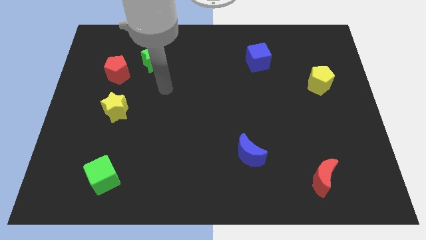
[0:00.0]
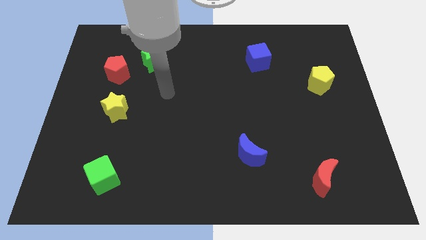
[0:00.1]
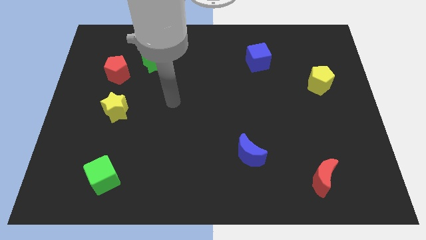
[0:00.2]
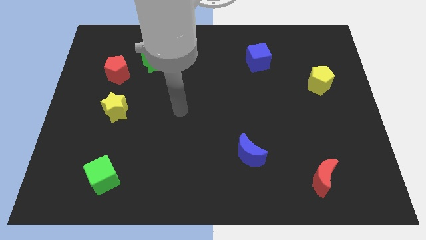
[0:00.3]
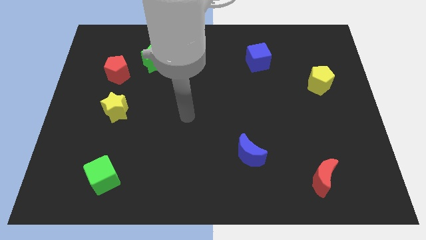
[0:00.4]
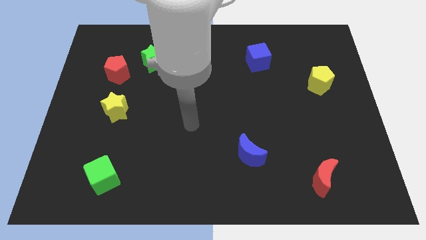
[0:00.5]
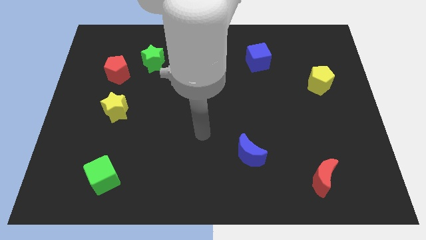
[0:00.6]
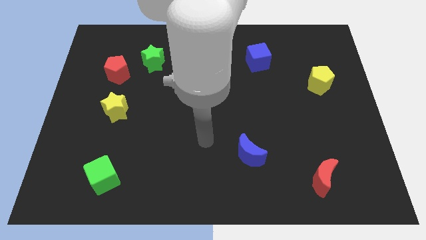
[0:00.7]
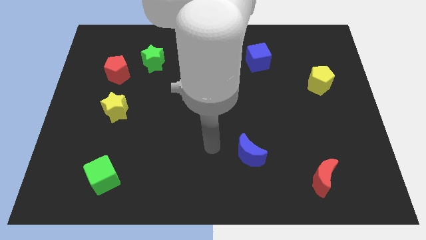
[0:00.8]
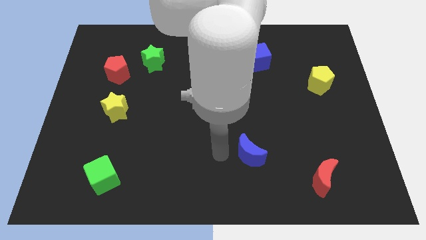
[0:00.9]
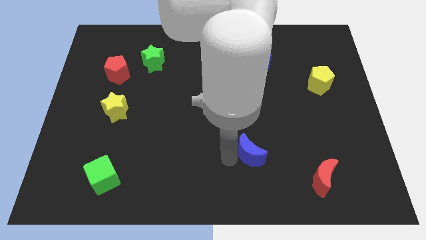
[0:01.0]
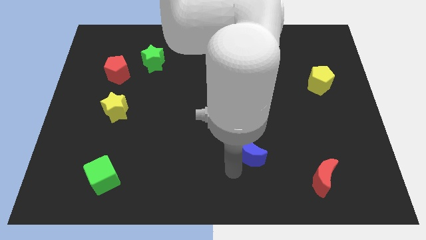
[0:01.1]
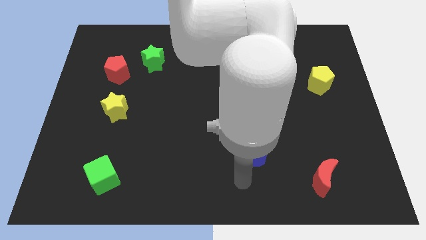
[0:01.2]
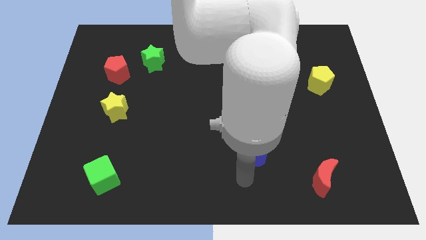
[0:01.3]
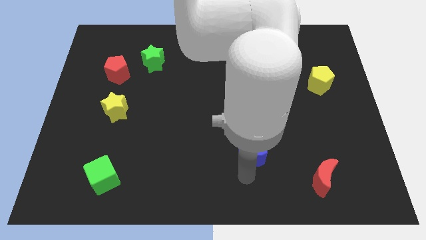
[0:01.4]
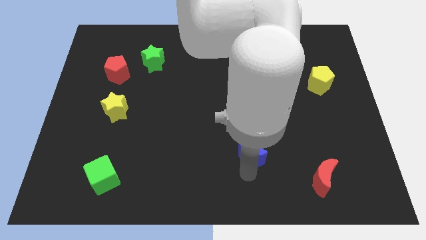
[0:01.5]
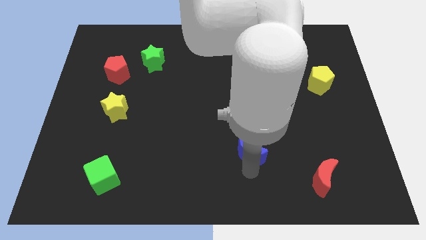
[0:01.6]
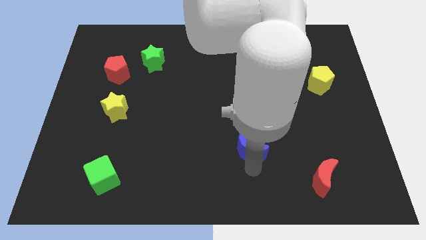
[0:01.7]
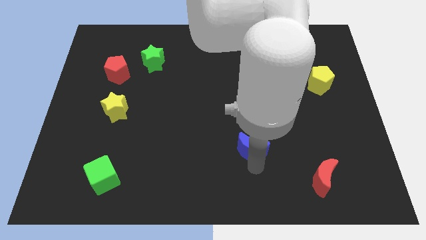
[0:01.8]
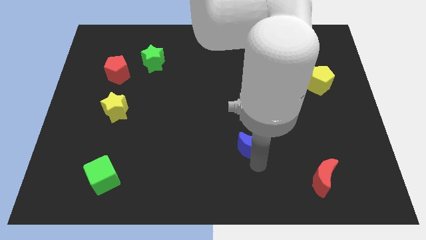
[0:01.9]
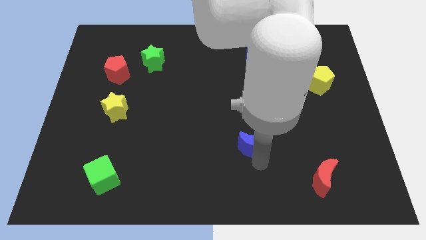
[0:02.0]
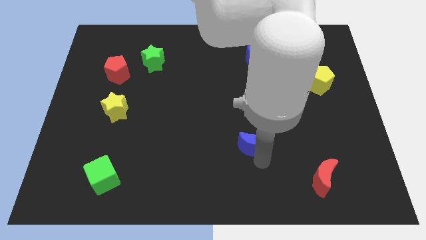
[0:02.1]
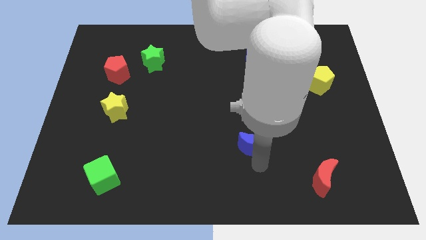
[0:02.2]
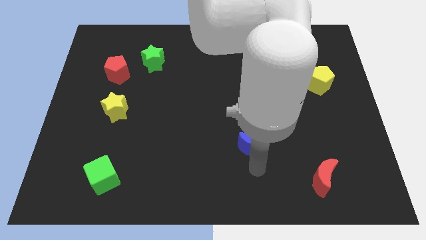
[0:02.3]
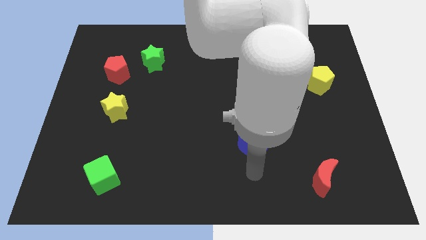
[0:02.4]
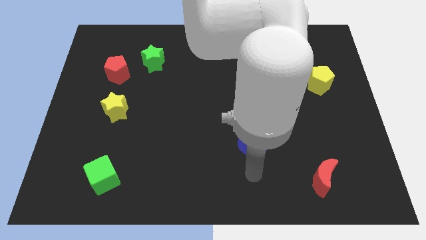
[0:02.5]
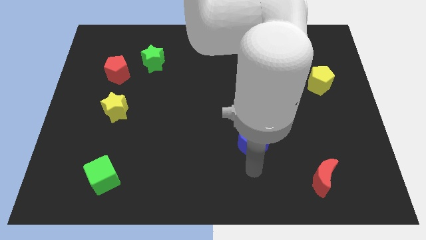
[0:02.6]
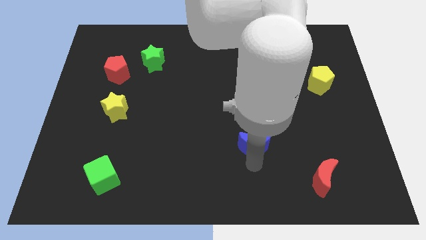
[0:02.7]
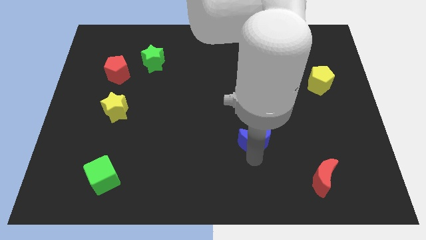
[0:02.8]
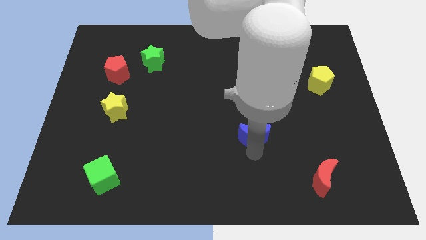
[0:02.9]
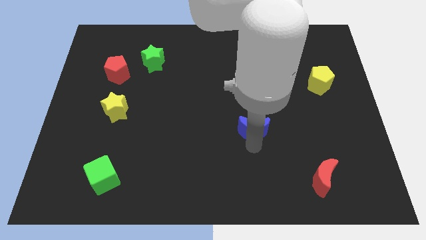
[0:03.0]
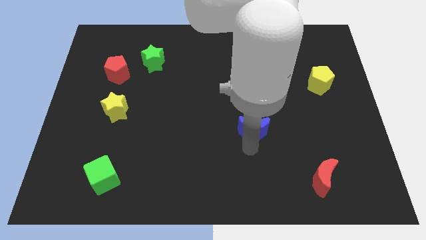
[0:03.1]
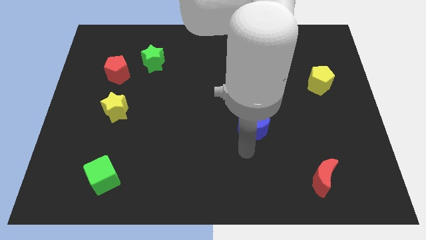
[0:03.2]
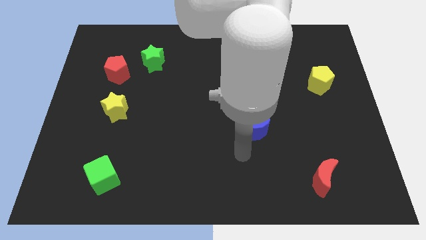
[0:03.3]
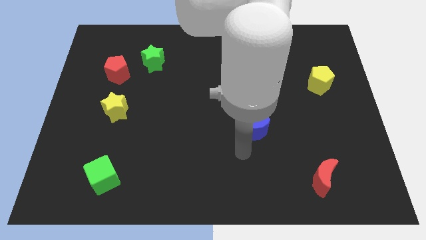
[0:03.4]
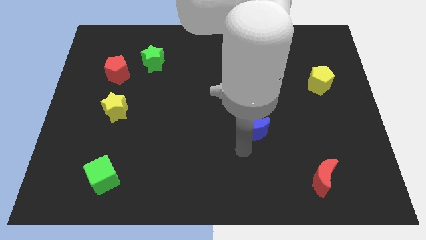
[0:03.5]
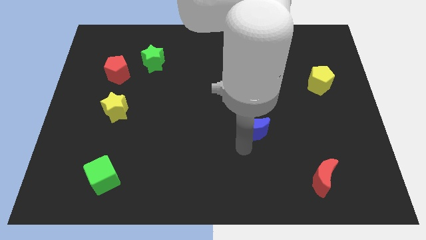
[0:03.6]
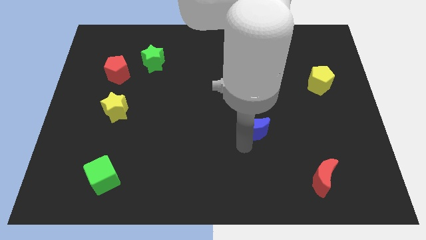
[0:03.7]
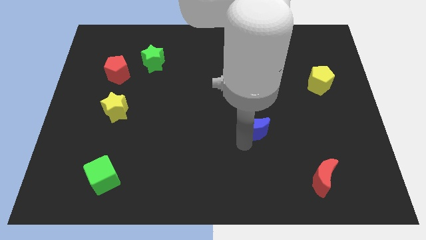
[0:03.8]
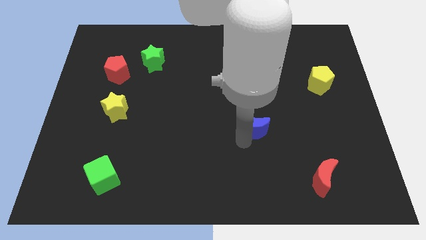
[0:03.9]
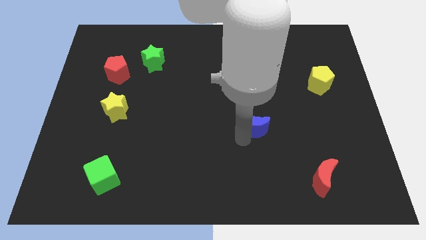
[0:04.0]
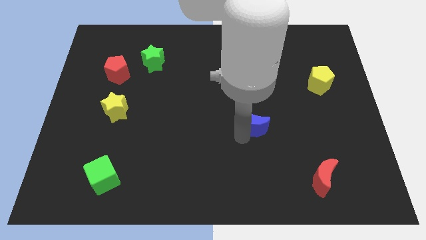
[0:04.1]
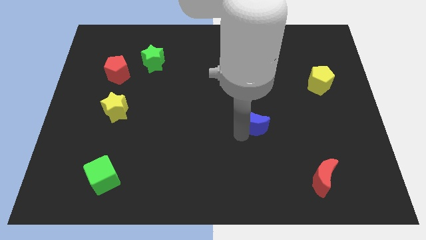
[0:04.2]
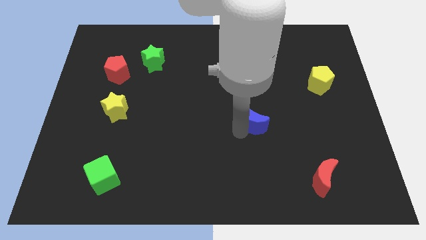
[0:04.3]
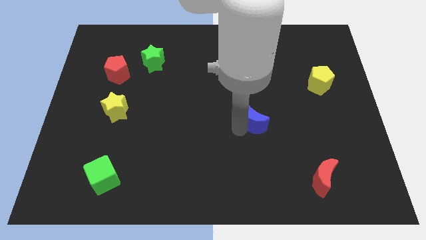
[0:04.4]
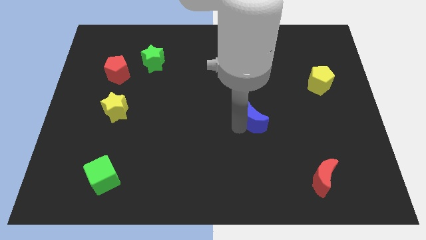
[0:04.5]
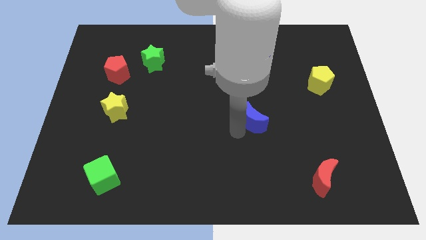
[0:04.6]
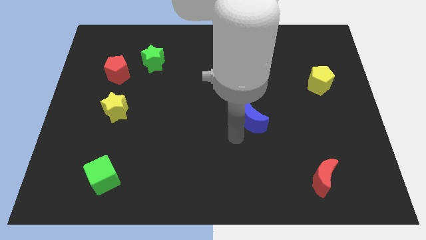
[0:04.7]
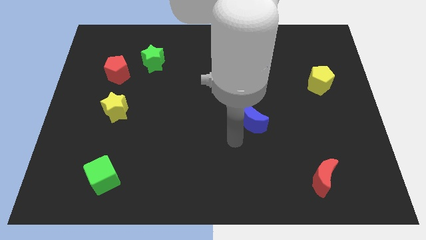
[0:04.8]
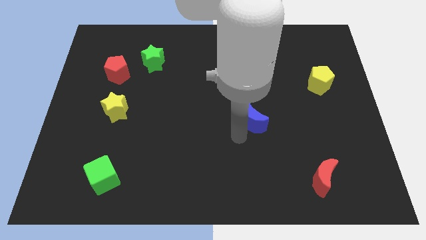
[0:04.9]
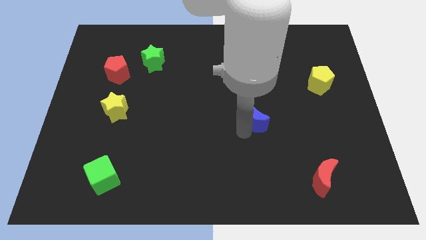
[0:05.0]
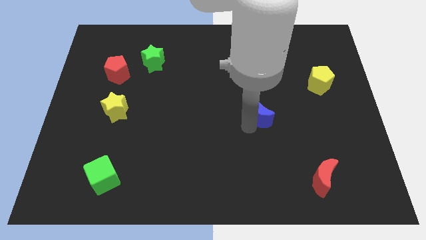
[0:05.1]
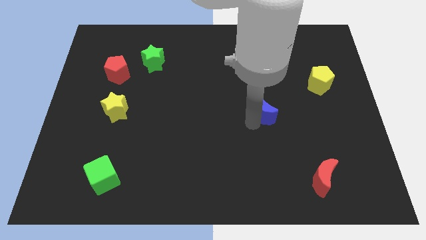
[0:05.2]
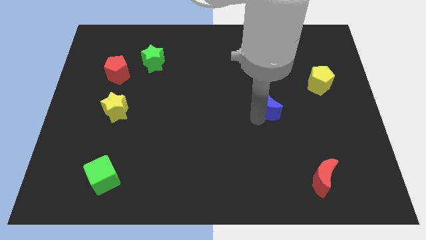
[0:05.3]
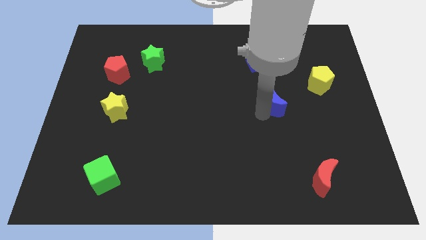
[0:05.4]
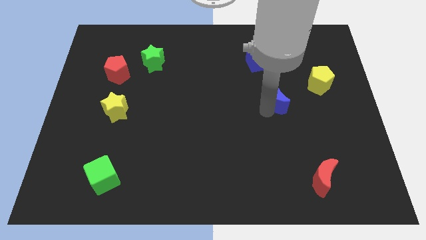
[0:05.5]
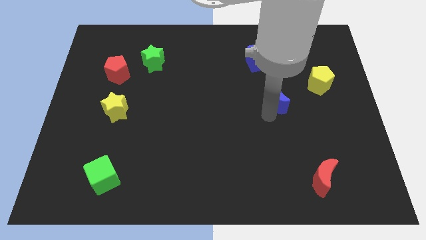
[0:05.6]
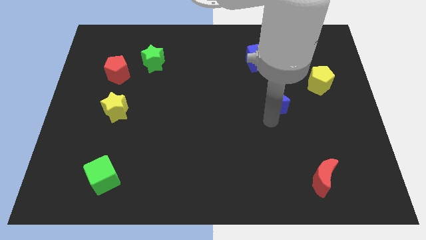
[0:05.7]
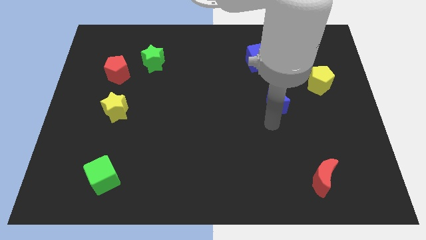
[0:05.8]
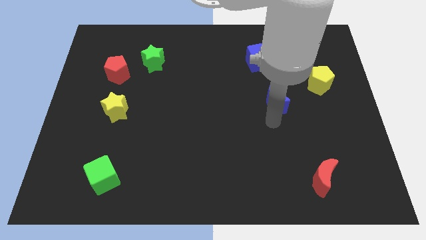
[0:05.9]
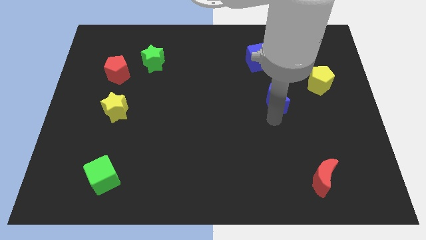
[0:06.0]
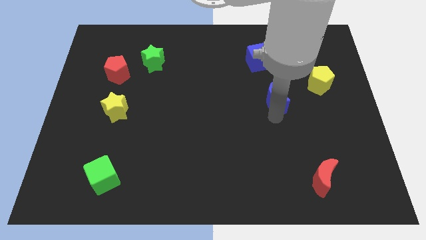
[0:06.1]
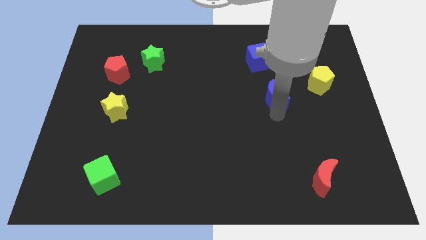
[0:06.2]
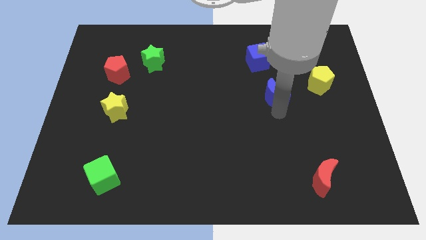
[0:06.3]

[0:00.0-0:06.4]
push the blue moon to the left side of the yellow pentagon

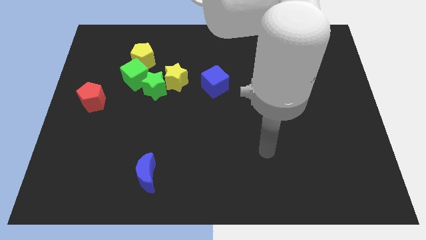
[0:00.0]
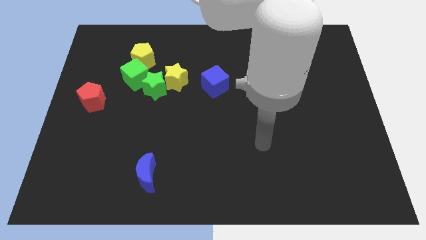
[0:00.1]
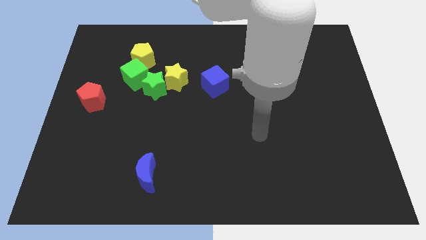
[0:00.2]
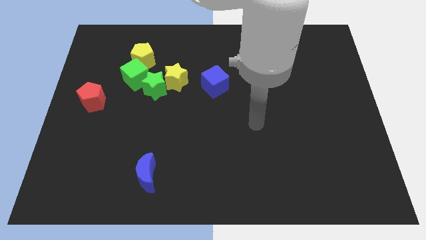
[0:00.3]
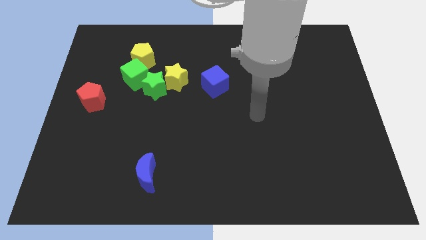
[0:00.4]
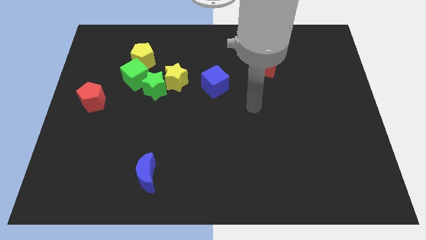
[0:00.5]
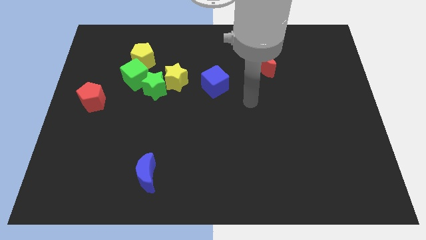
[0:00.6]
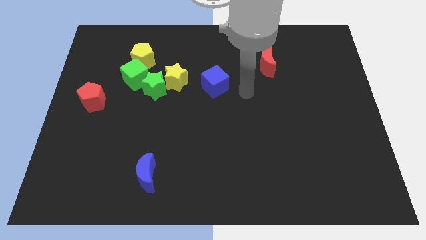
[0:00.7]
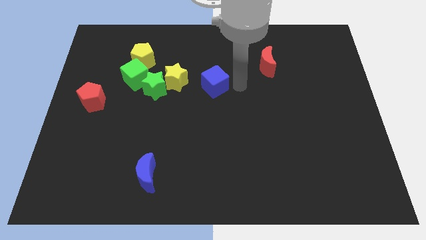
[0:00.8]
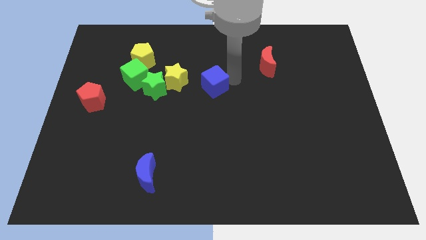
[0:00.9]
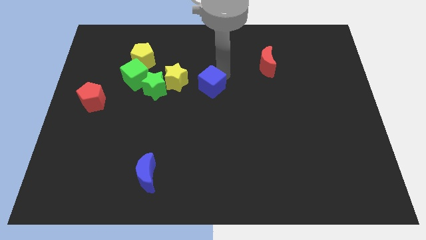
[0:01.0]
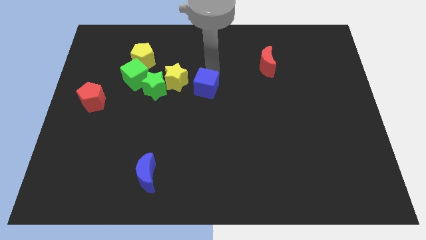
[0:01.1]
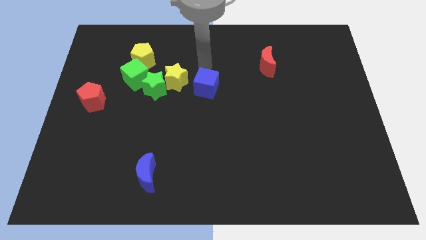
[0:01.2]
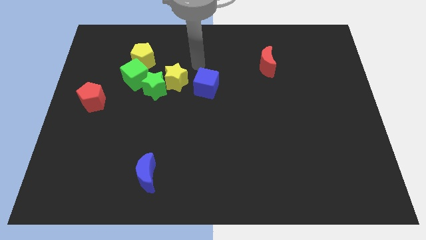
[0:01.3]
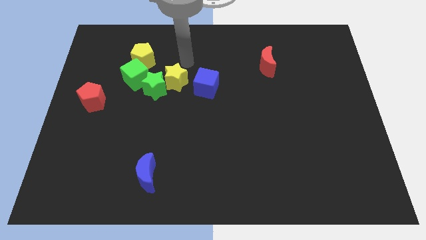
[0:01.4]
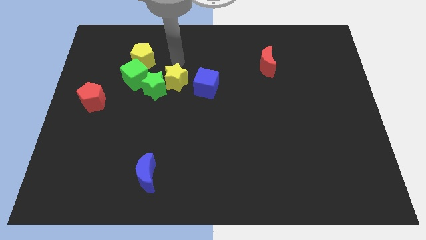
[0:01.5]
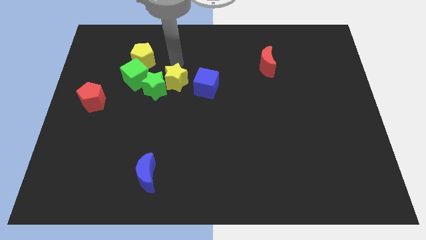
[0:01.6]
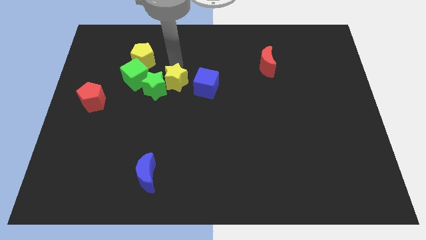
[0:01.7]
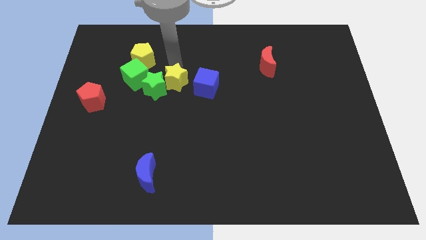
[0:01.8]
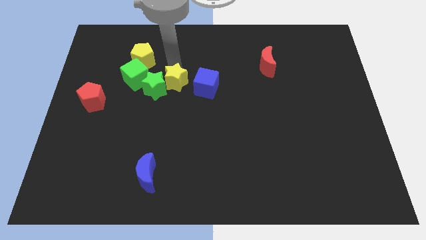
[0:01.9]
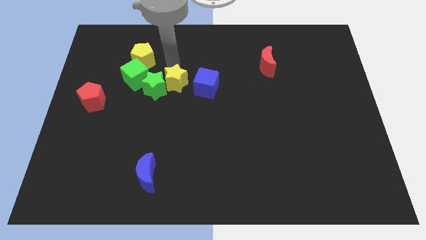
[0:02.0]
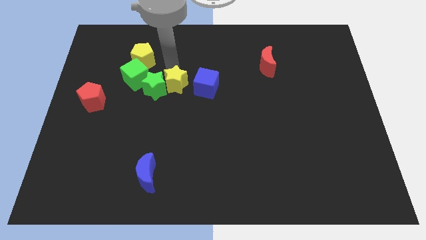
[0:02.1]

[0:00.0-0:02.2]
push the yellow star to the bottom right of the green star
